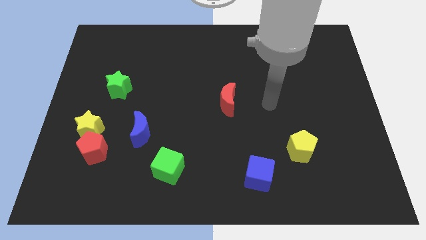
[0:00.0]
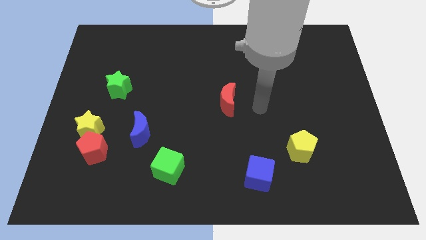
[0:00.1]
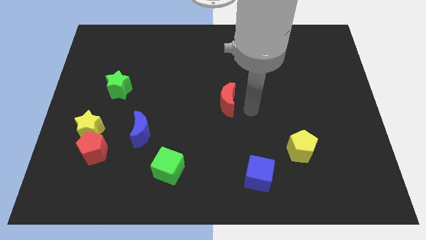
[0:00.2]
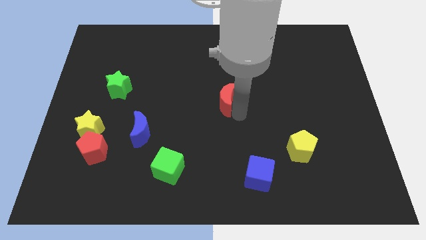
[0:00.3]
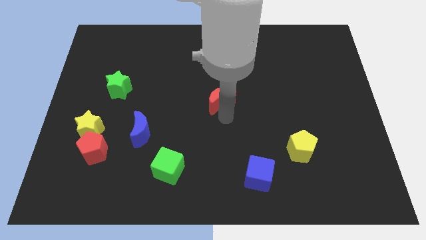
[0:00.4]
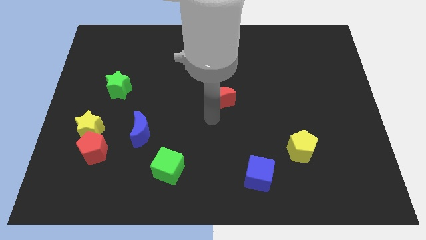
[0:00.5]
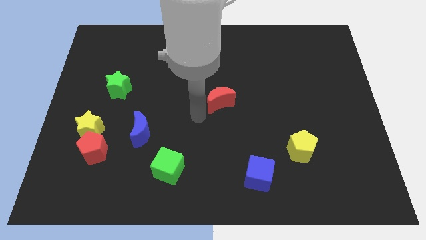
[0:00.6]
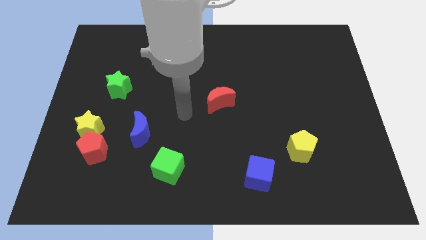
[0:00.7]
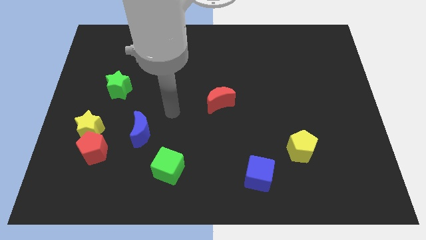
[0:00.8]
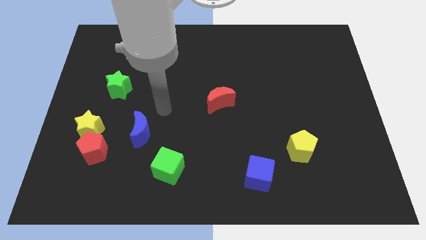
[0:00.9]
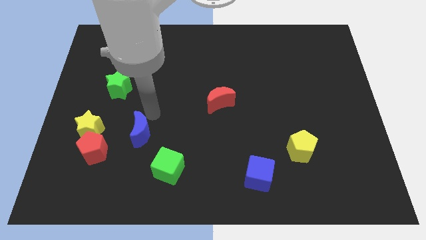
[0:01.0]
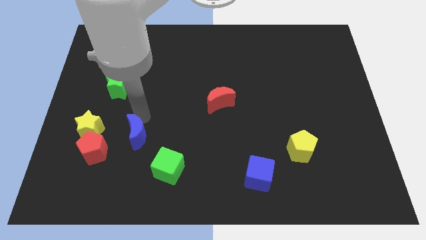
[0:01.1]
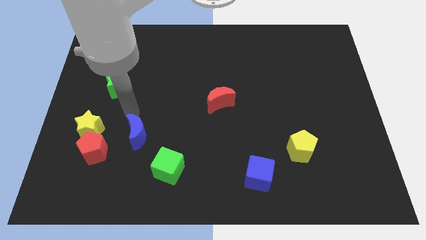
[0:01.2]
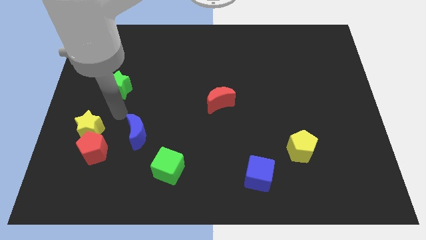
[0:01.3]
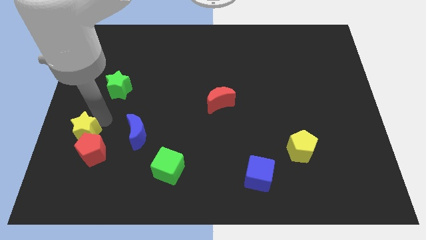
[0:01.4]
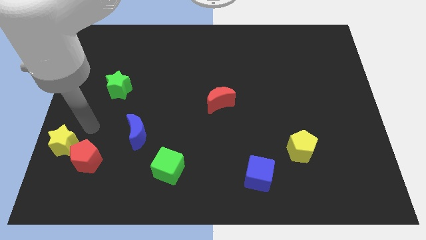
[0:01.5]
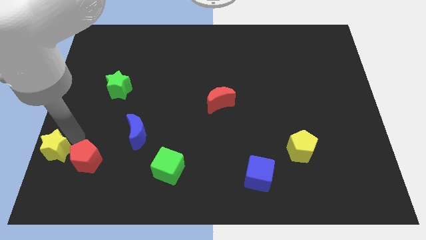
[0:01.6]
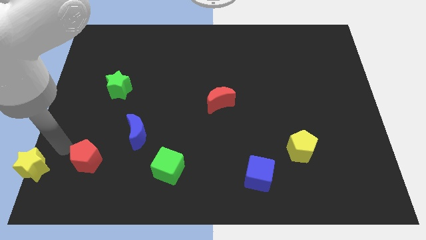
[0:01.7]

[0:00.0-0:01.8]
separate the red pentagon from the yellow star

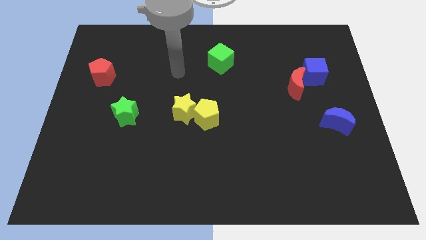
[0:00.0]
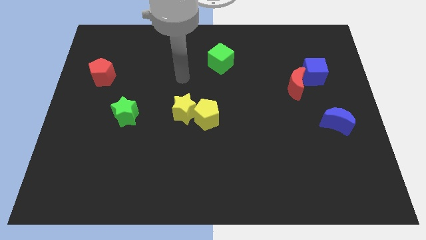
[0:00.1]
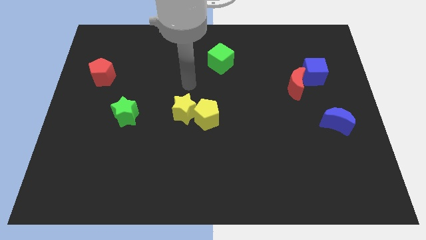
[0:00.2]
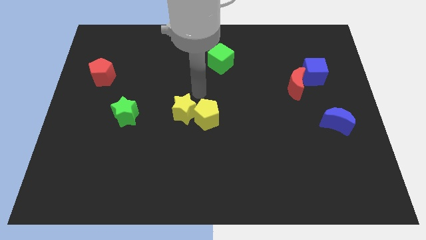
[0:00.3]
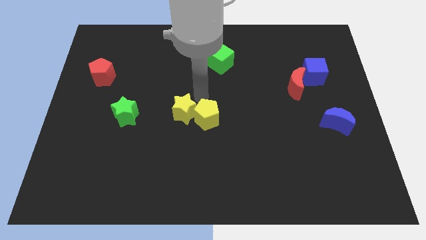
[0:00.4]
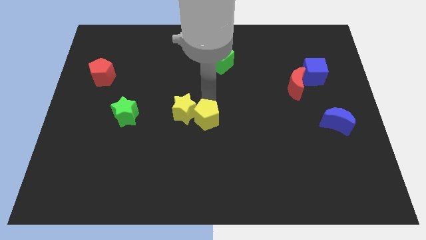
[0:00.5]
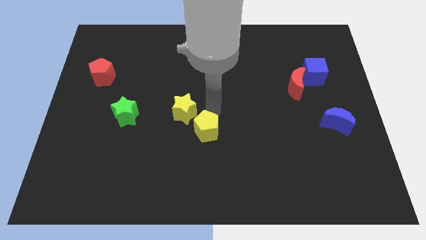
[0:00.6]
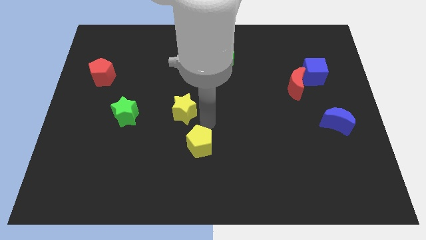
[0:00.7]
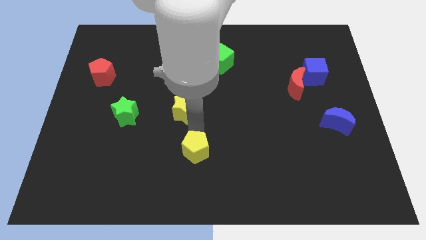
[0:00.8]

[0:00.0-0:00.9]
pull the yellow star apart from the yellow pentagon

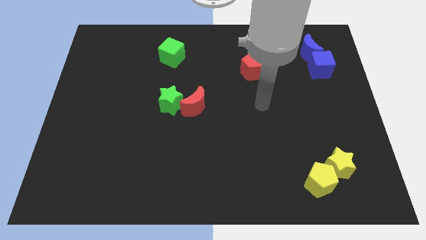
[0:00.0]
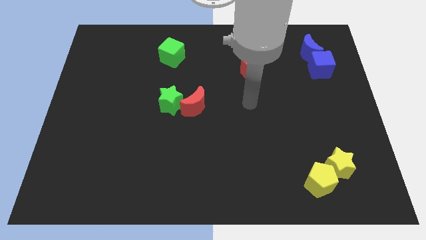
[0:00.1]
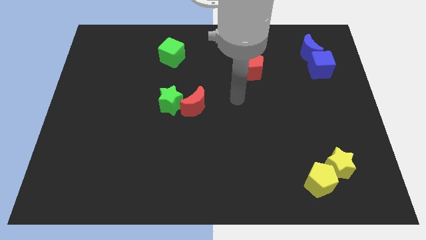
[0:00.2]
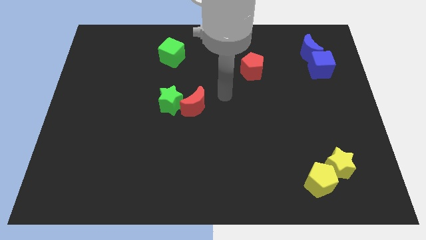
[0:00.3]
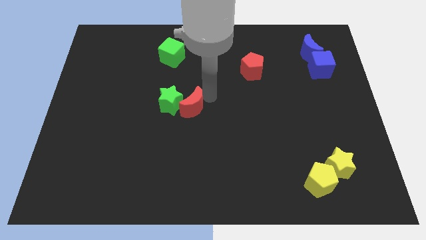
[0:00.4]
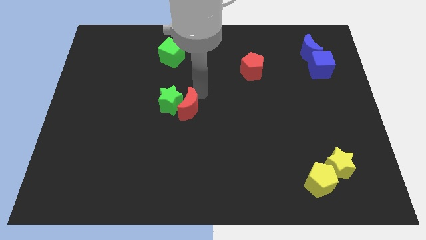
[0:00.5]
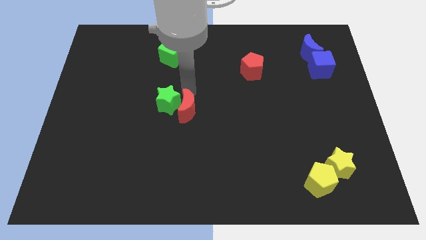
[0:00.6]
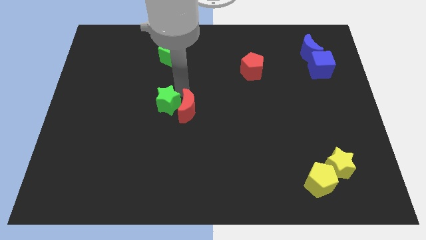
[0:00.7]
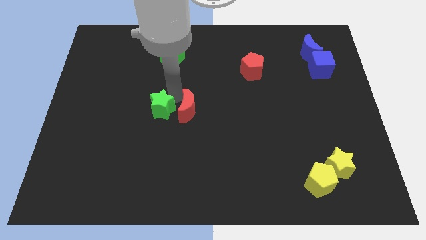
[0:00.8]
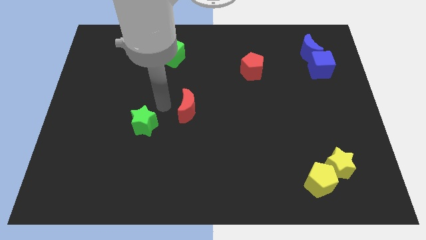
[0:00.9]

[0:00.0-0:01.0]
pull the red moon apart from the green star

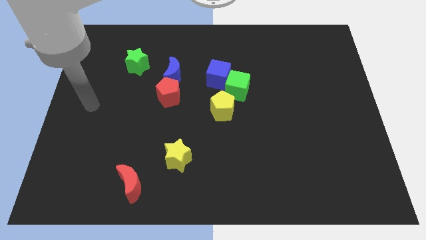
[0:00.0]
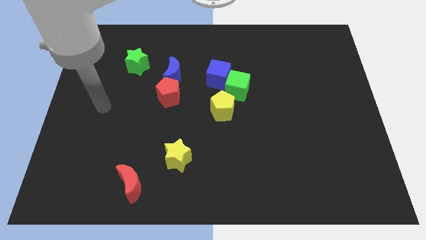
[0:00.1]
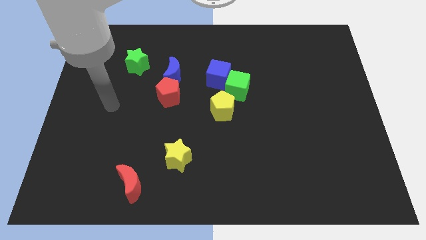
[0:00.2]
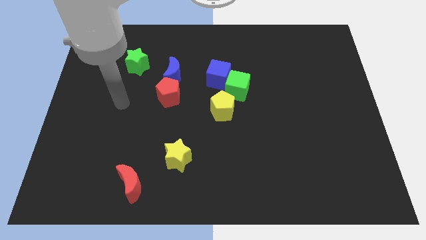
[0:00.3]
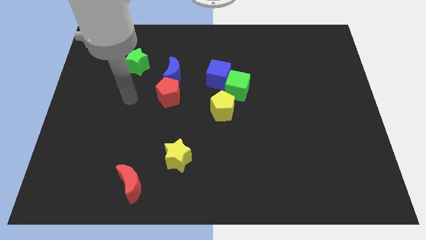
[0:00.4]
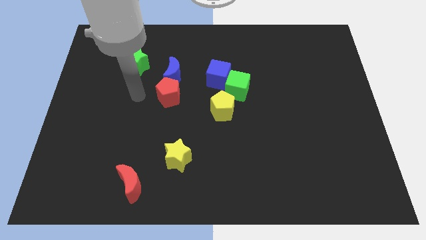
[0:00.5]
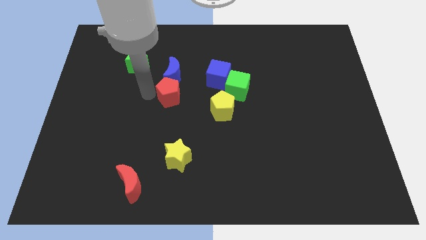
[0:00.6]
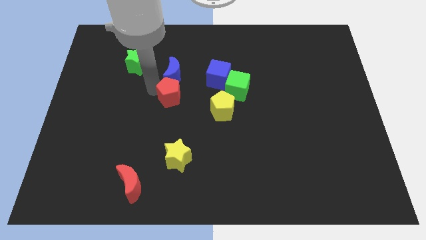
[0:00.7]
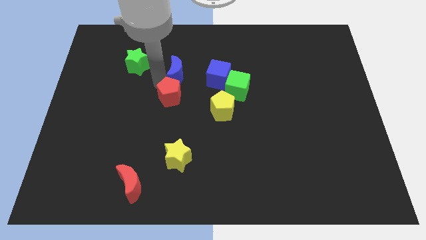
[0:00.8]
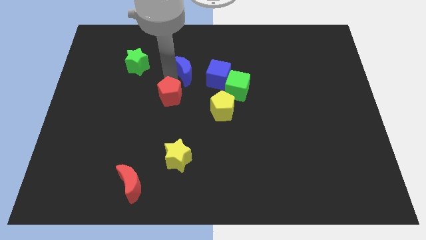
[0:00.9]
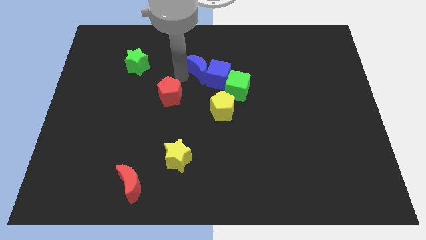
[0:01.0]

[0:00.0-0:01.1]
pull the red pentagon apart from the blue moon

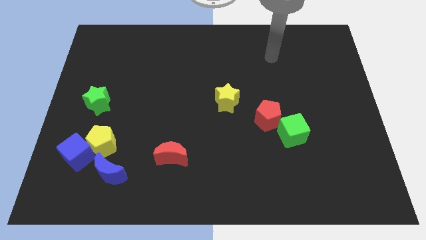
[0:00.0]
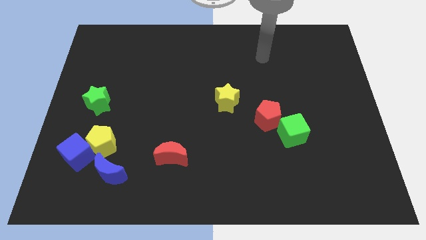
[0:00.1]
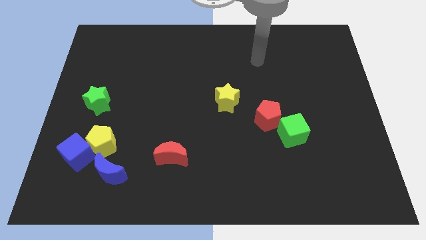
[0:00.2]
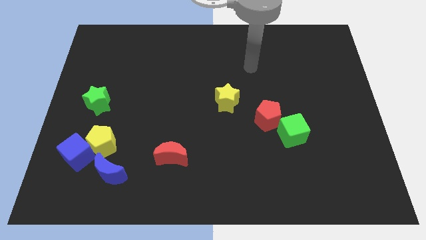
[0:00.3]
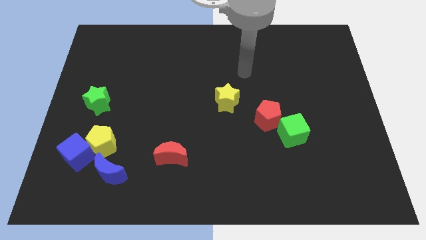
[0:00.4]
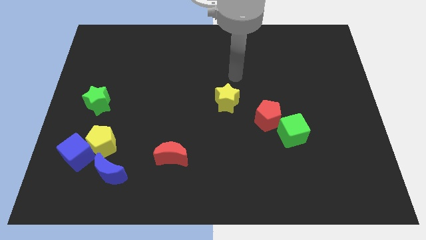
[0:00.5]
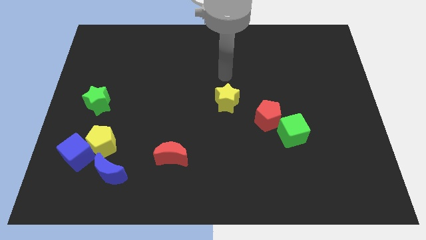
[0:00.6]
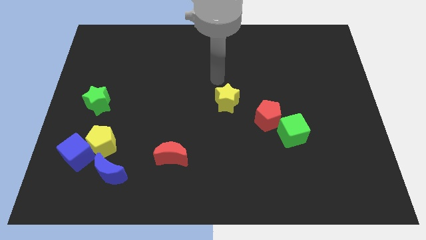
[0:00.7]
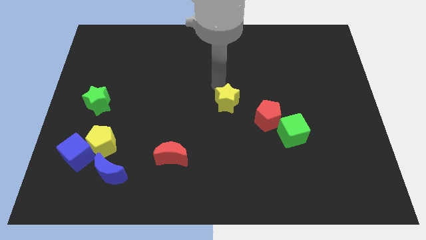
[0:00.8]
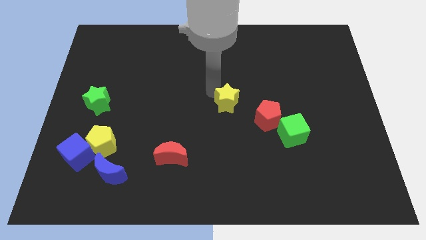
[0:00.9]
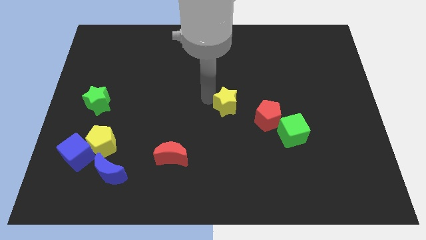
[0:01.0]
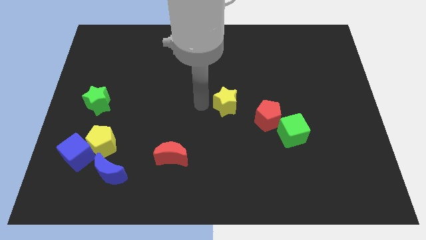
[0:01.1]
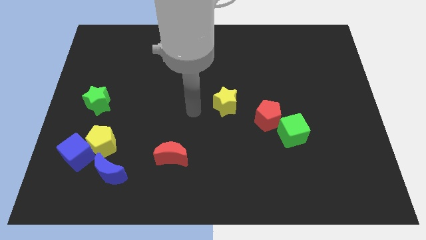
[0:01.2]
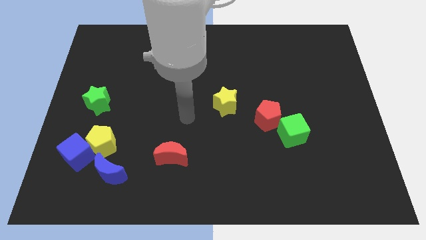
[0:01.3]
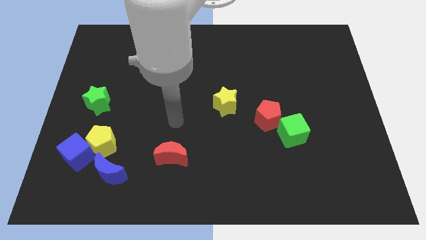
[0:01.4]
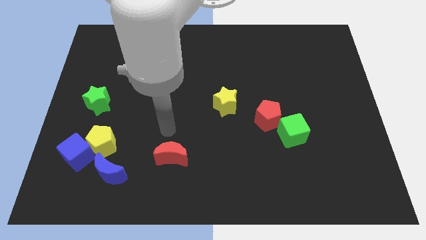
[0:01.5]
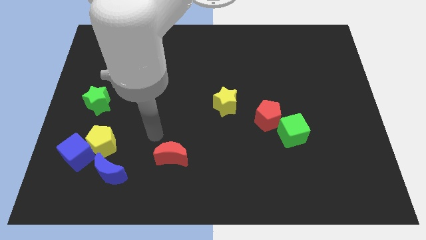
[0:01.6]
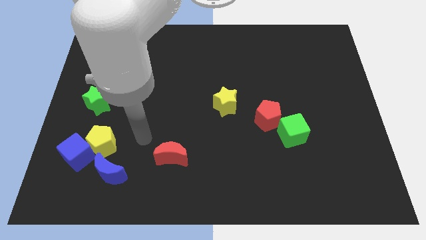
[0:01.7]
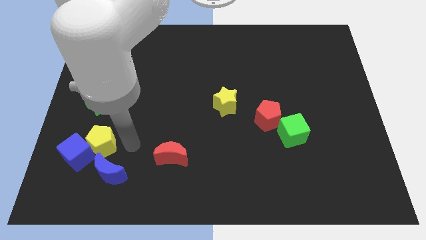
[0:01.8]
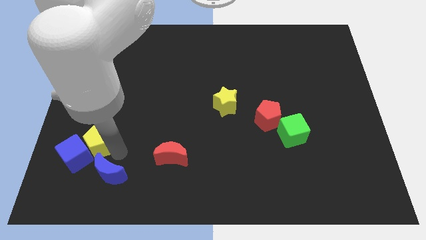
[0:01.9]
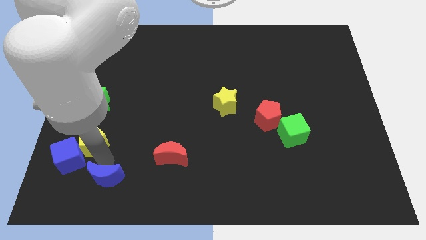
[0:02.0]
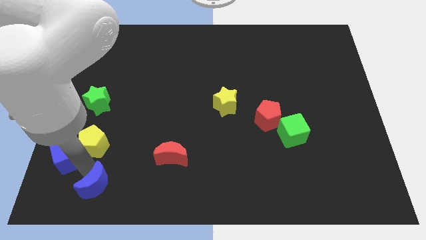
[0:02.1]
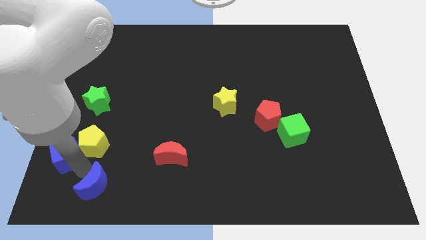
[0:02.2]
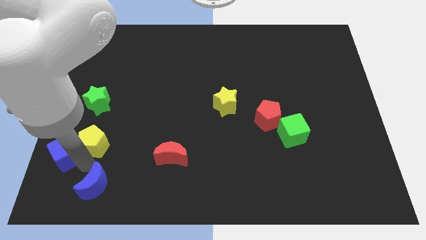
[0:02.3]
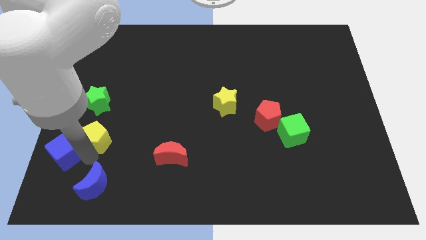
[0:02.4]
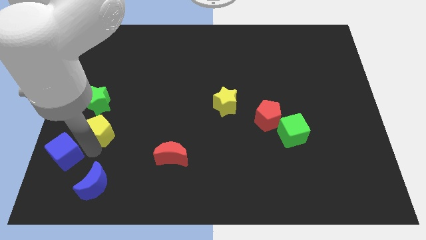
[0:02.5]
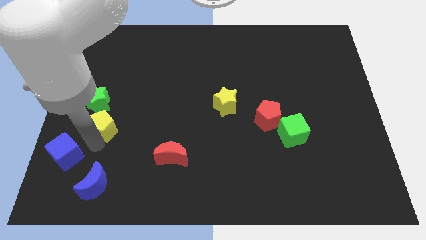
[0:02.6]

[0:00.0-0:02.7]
move the yellow pentagon away from the blue cube and blue moon

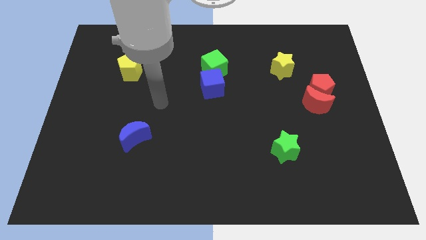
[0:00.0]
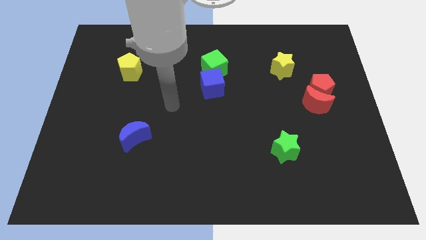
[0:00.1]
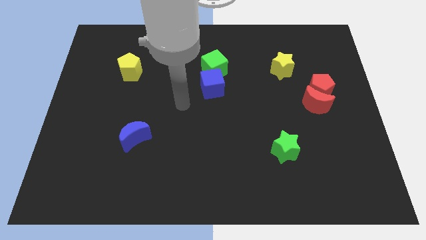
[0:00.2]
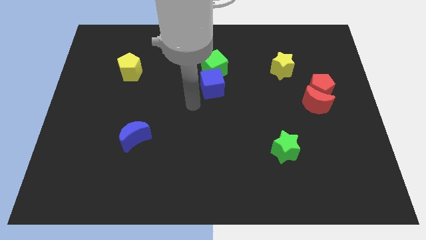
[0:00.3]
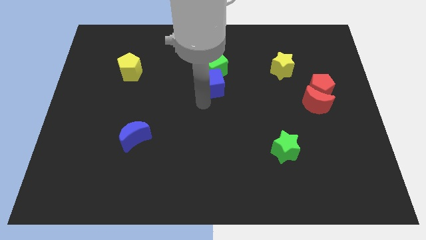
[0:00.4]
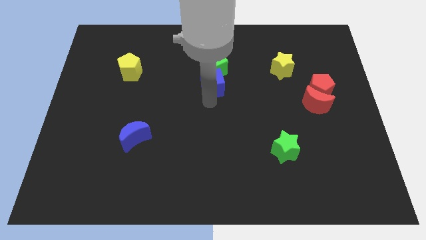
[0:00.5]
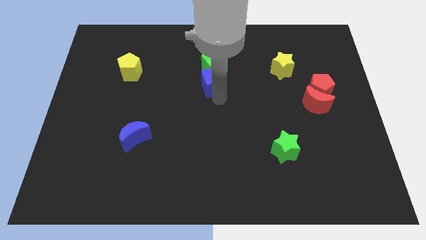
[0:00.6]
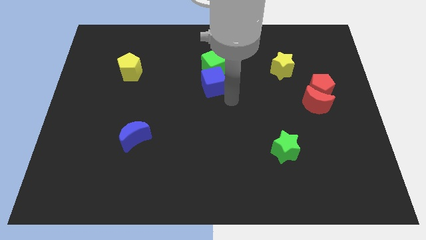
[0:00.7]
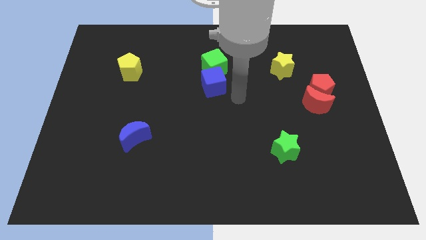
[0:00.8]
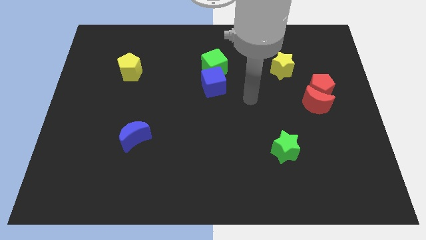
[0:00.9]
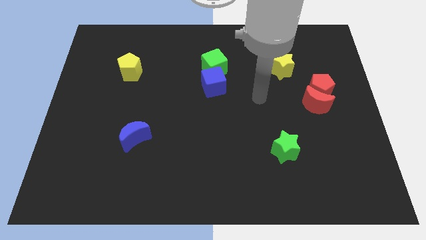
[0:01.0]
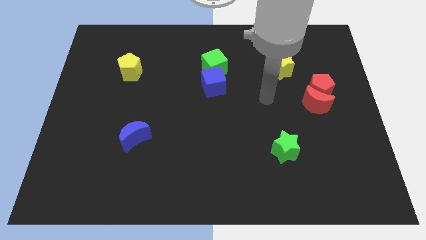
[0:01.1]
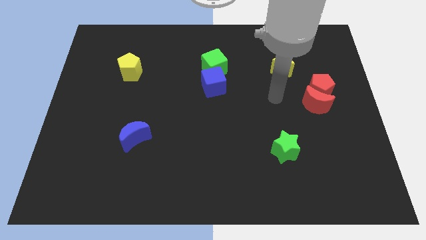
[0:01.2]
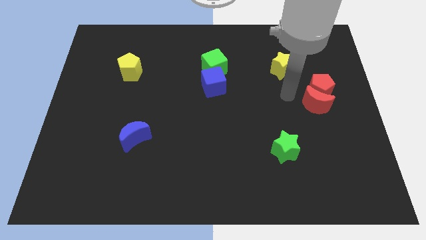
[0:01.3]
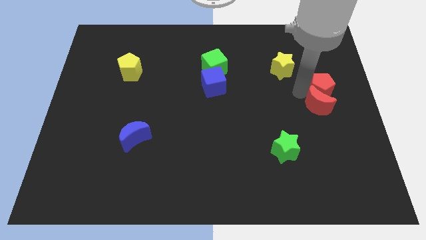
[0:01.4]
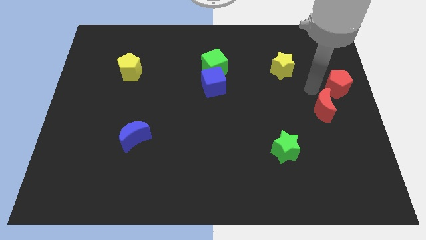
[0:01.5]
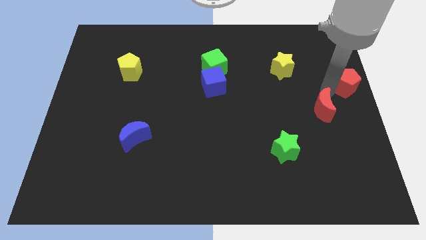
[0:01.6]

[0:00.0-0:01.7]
move the red moon away from the red pentagon

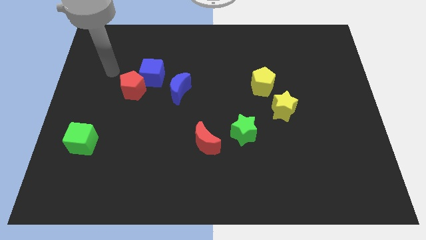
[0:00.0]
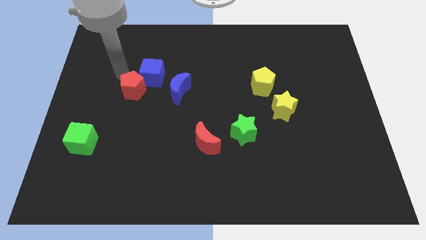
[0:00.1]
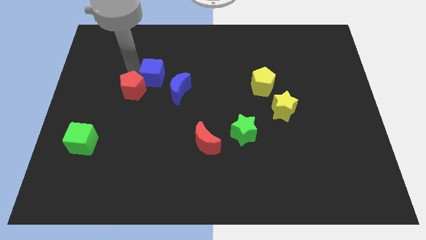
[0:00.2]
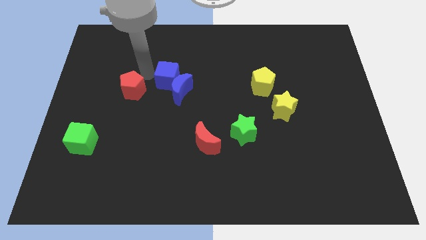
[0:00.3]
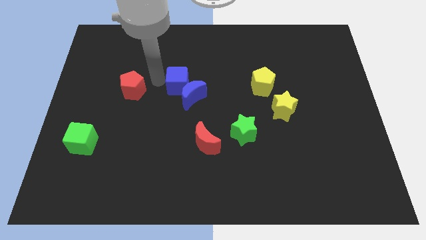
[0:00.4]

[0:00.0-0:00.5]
separate the red pentagon from the blue cube
